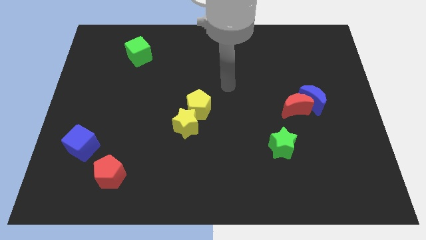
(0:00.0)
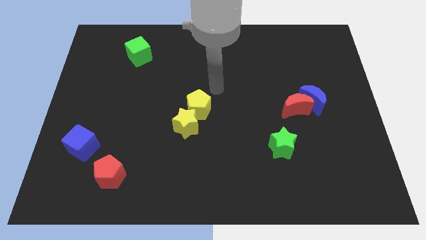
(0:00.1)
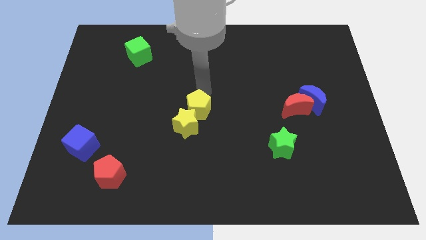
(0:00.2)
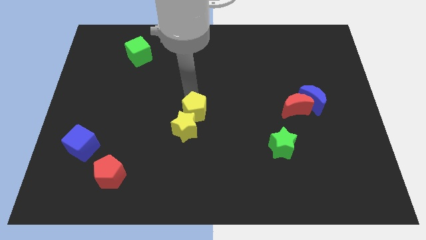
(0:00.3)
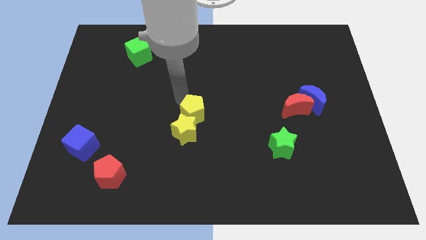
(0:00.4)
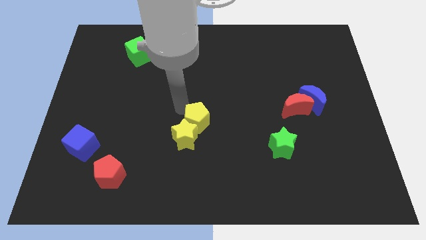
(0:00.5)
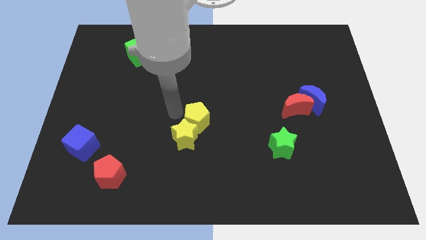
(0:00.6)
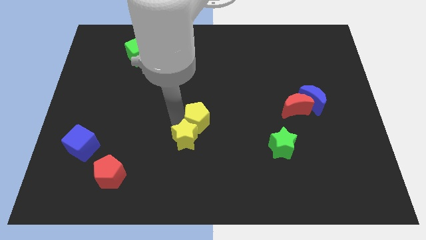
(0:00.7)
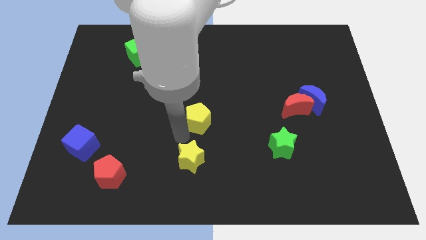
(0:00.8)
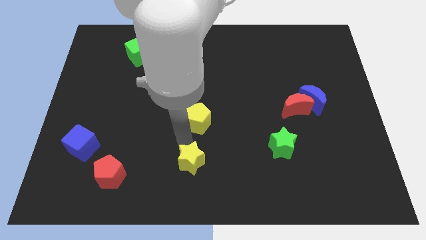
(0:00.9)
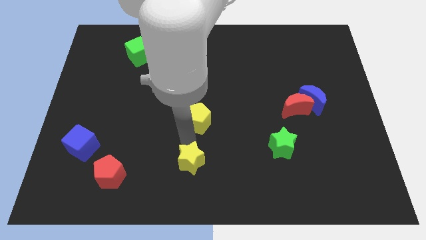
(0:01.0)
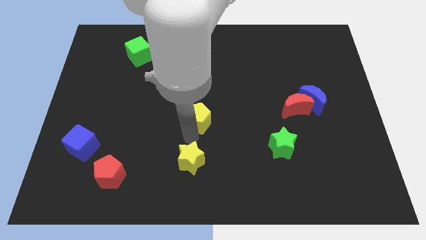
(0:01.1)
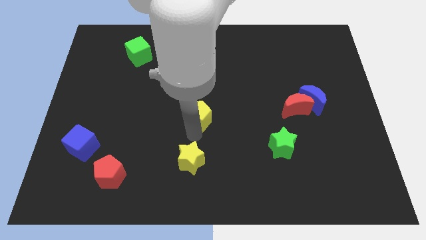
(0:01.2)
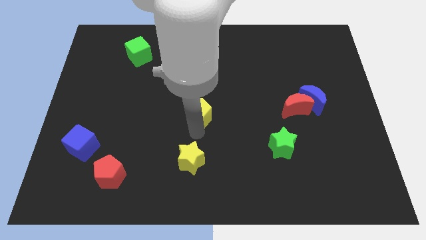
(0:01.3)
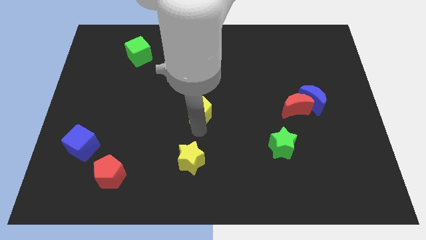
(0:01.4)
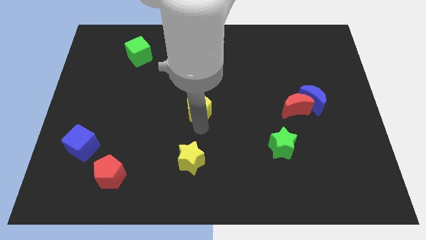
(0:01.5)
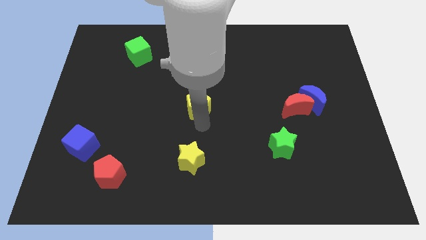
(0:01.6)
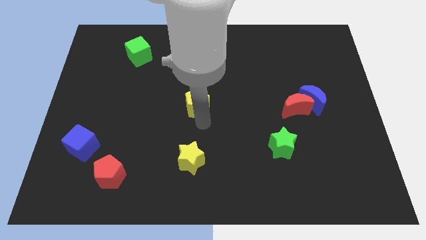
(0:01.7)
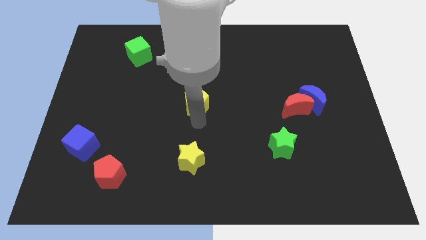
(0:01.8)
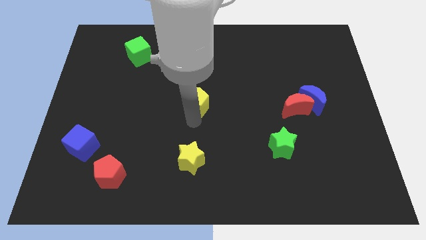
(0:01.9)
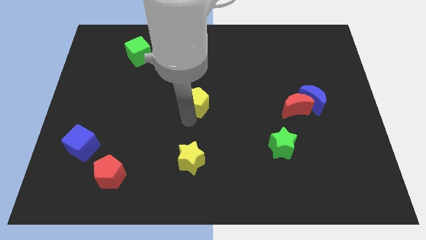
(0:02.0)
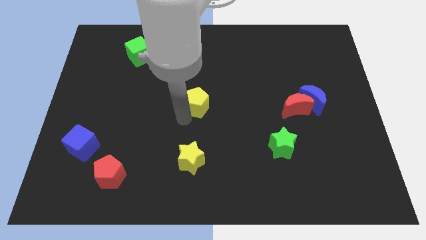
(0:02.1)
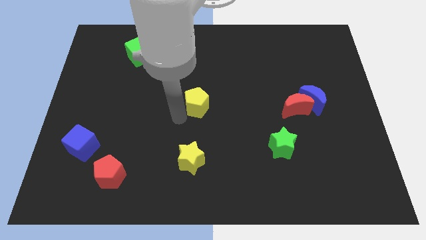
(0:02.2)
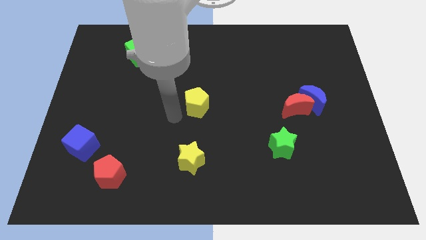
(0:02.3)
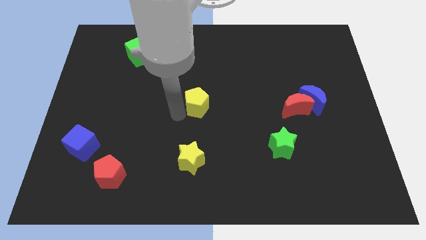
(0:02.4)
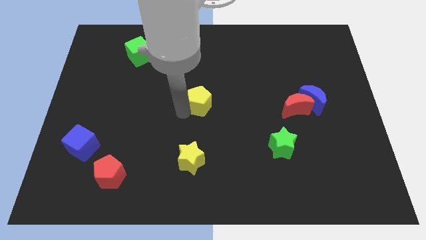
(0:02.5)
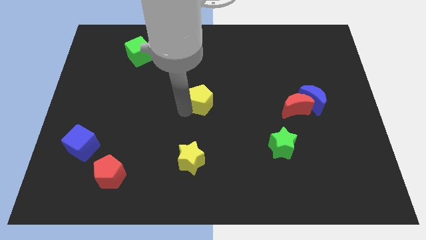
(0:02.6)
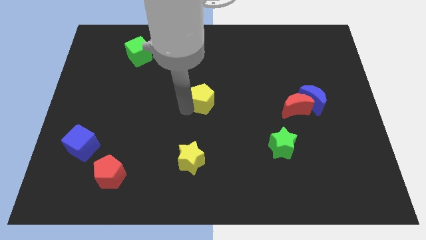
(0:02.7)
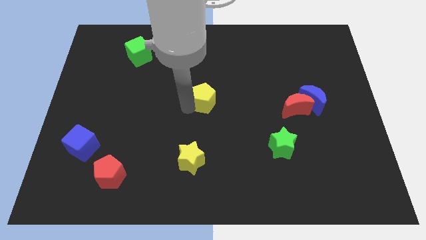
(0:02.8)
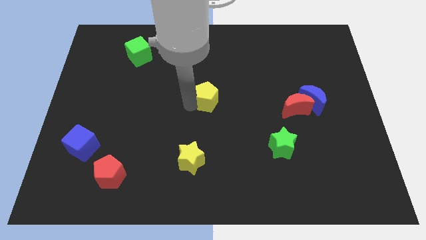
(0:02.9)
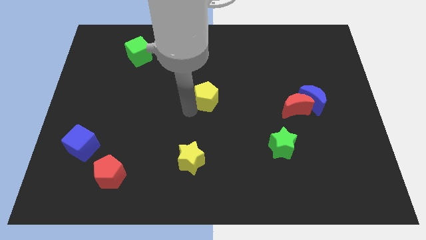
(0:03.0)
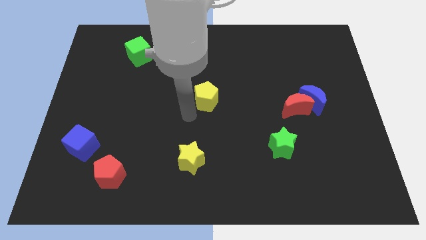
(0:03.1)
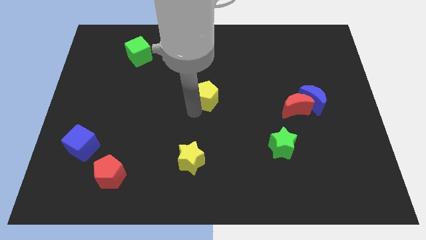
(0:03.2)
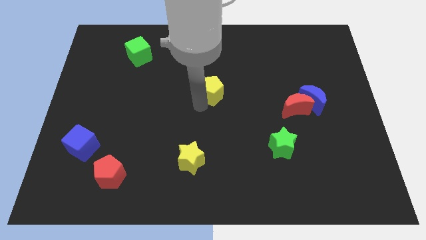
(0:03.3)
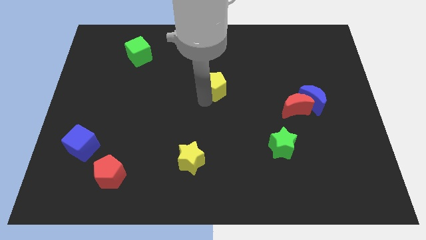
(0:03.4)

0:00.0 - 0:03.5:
push the yellow pentagon diagonally upwards and right a little

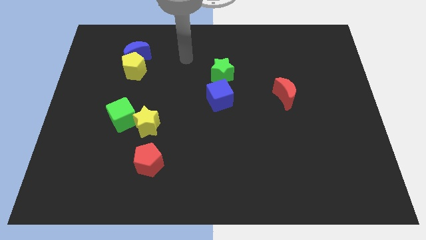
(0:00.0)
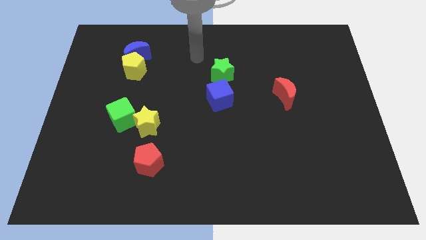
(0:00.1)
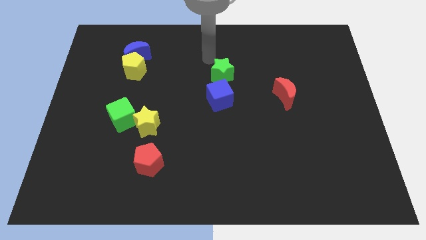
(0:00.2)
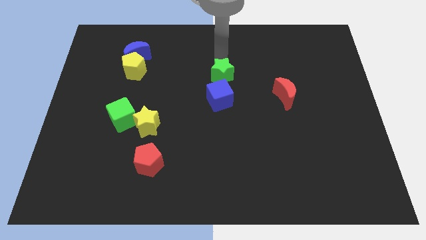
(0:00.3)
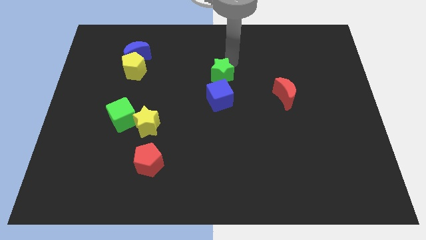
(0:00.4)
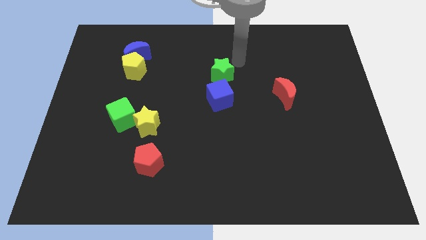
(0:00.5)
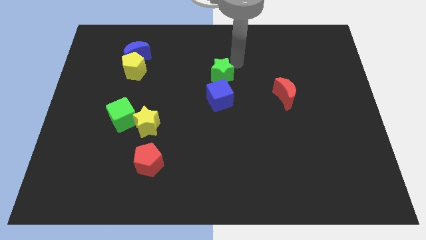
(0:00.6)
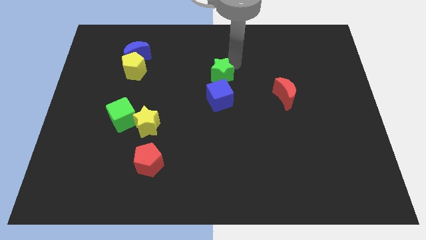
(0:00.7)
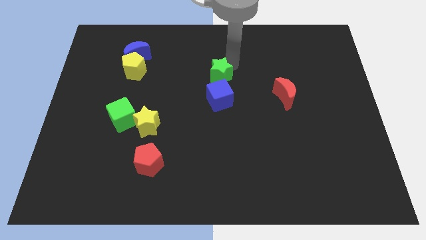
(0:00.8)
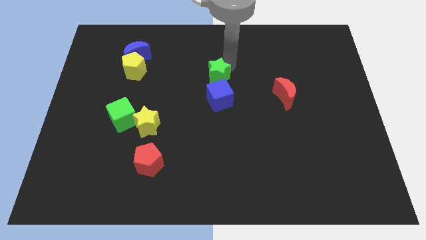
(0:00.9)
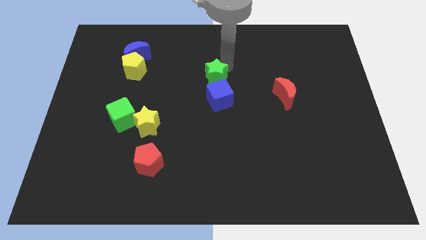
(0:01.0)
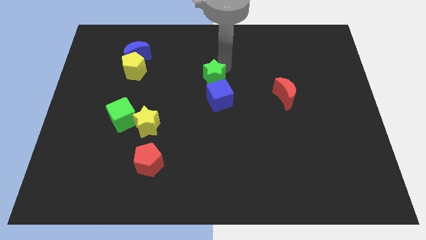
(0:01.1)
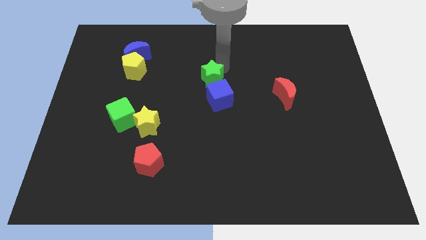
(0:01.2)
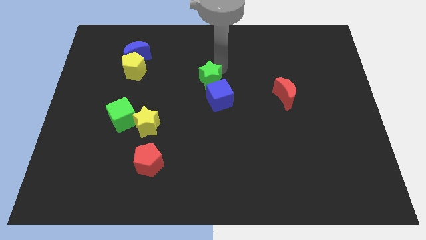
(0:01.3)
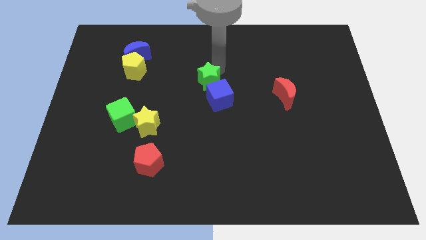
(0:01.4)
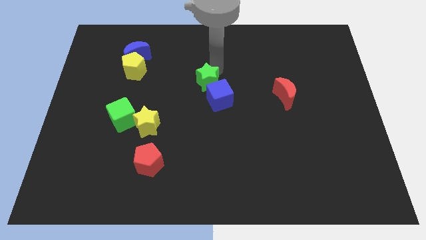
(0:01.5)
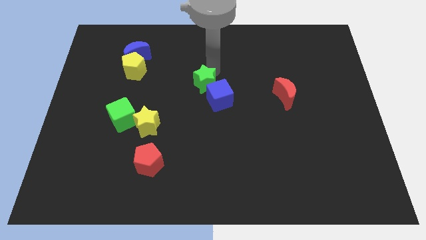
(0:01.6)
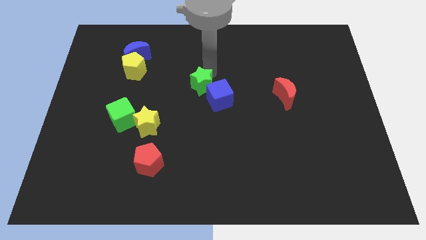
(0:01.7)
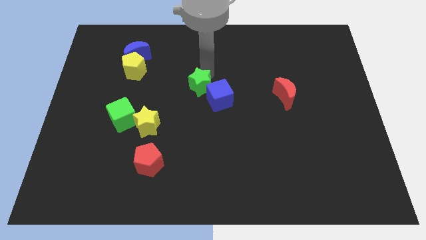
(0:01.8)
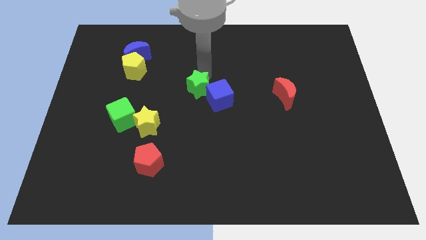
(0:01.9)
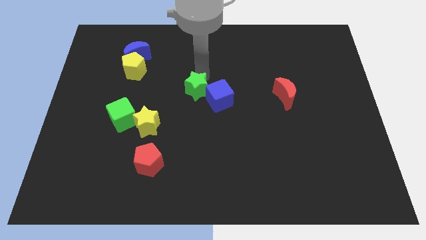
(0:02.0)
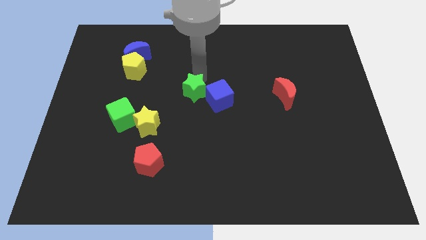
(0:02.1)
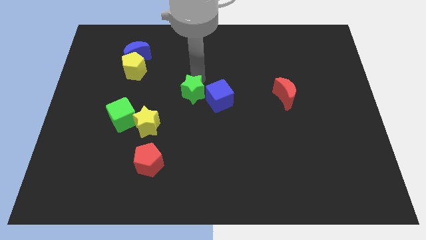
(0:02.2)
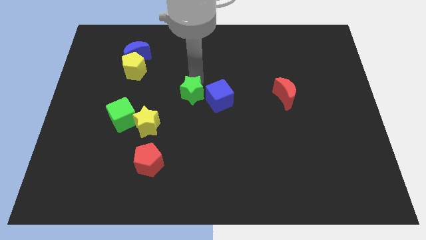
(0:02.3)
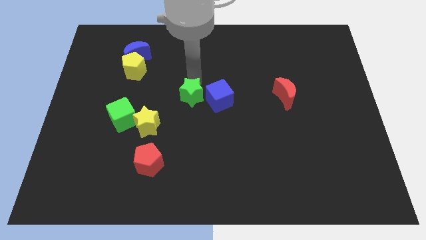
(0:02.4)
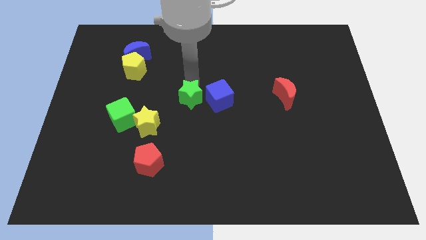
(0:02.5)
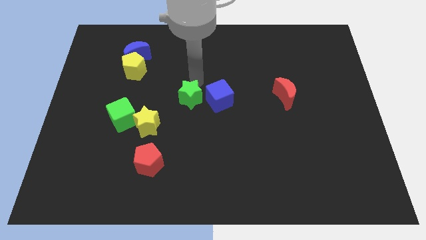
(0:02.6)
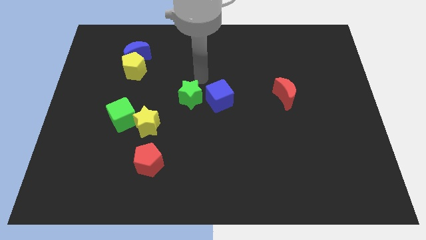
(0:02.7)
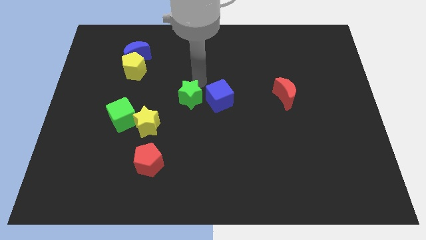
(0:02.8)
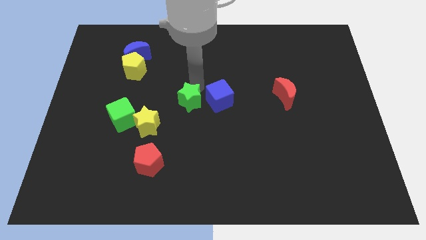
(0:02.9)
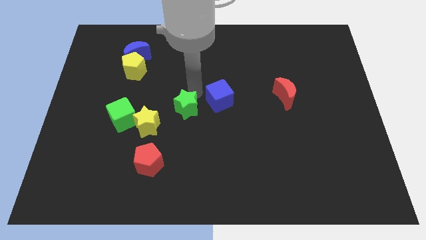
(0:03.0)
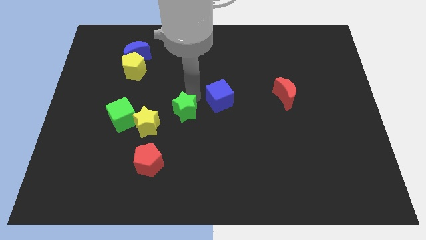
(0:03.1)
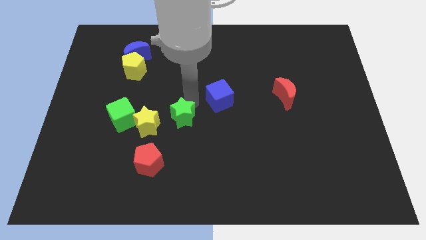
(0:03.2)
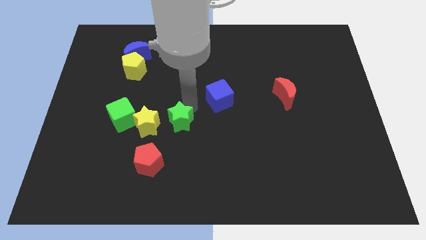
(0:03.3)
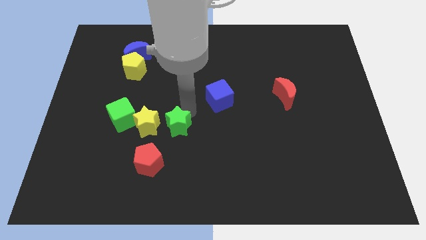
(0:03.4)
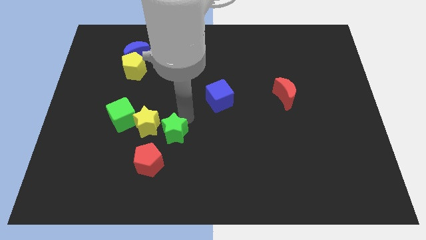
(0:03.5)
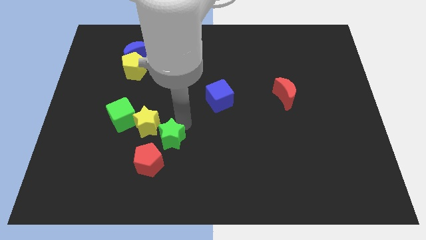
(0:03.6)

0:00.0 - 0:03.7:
push the green star downwards and to the left

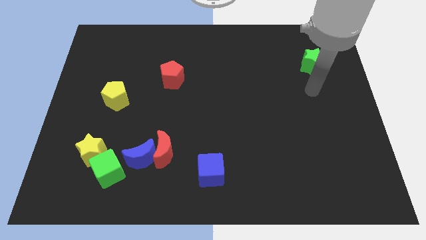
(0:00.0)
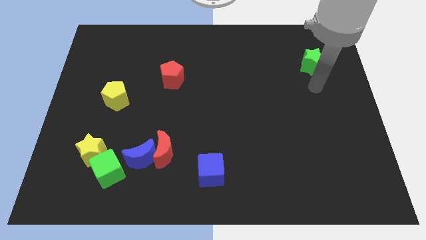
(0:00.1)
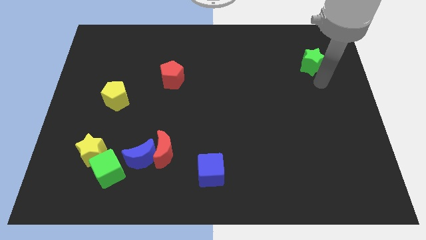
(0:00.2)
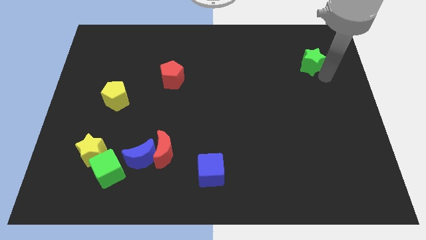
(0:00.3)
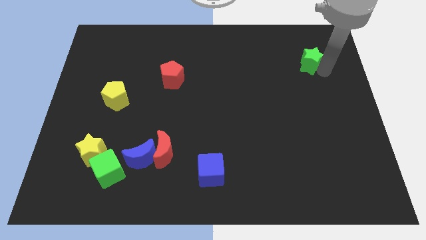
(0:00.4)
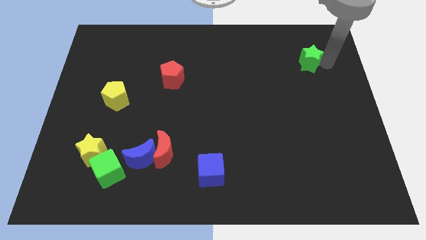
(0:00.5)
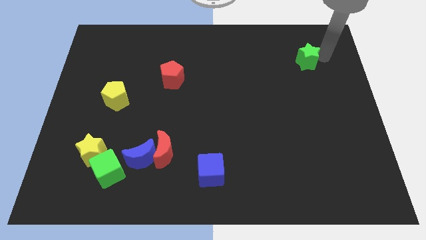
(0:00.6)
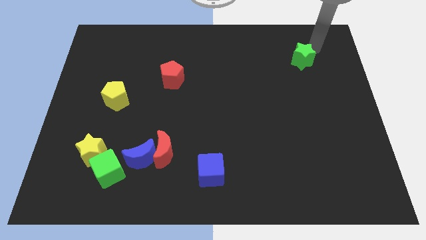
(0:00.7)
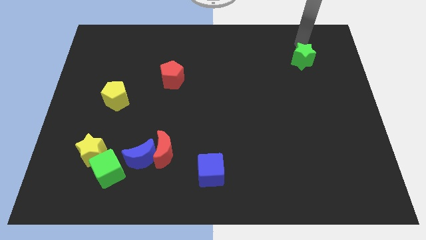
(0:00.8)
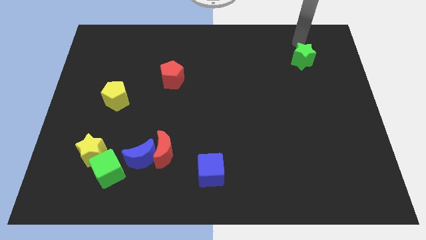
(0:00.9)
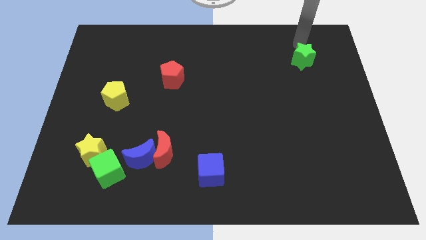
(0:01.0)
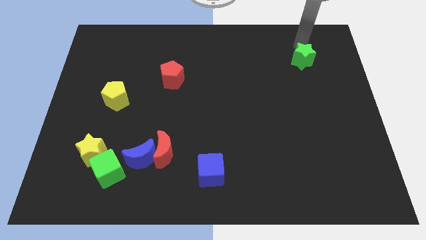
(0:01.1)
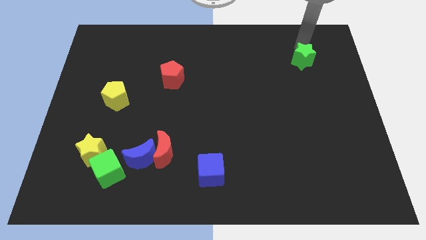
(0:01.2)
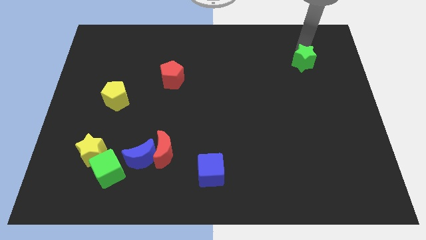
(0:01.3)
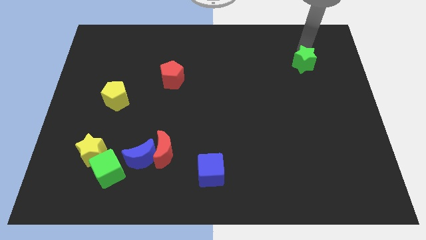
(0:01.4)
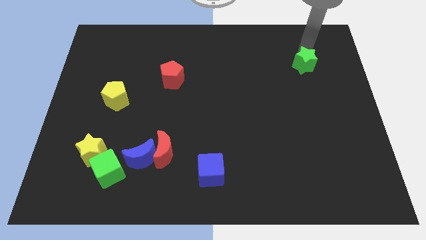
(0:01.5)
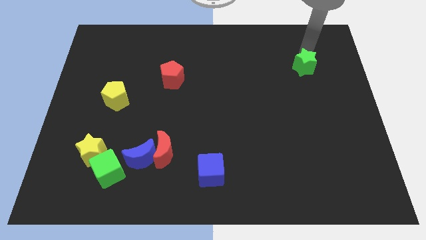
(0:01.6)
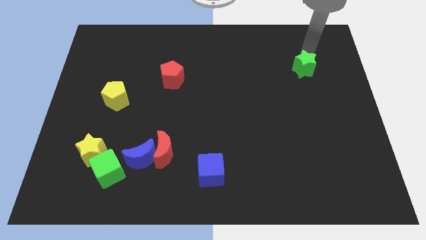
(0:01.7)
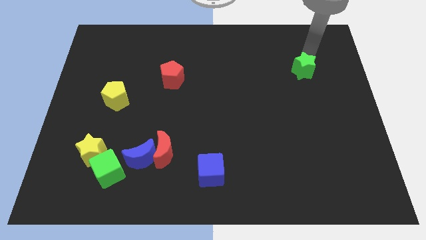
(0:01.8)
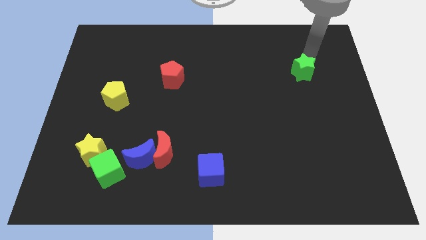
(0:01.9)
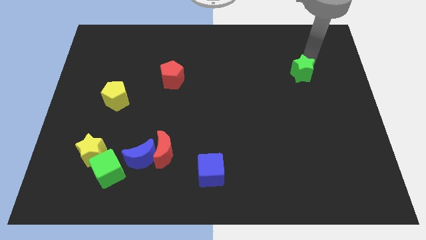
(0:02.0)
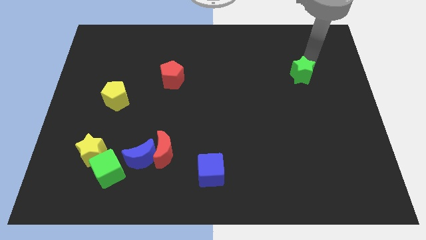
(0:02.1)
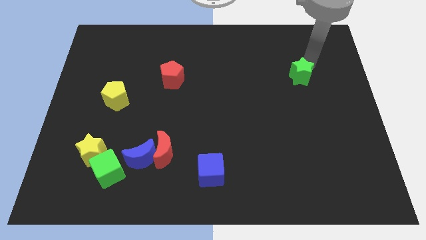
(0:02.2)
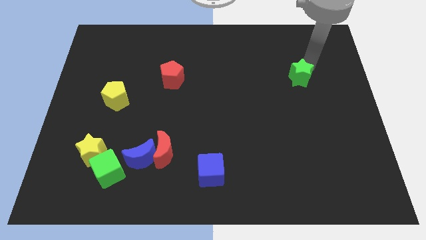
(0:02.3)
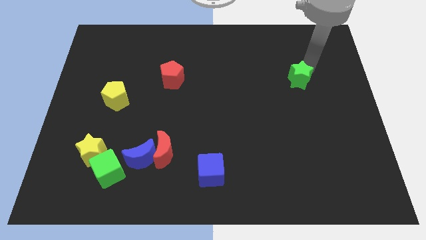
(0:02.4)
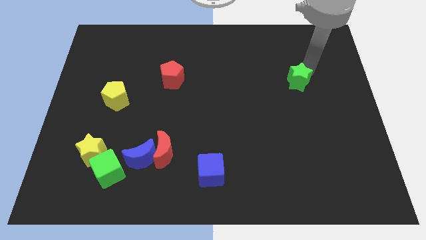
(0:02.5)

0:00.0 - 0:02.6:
slightly slide the green star downwards and to the left
